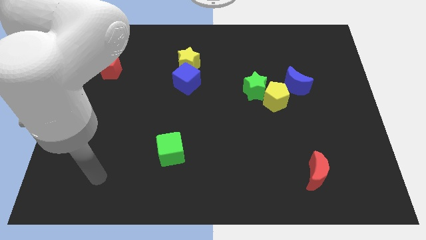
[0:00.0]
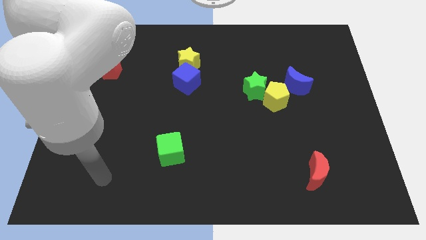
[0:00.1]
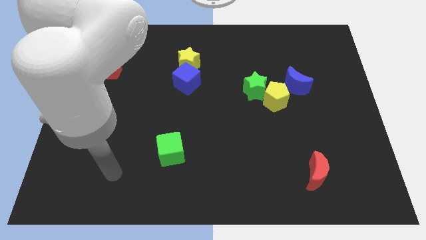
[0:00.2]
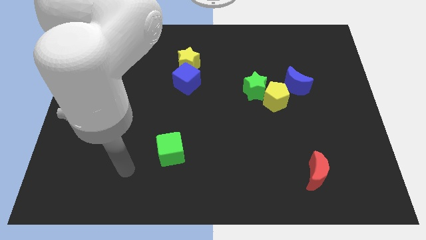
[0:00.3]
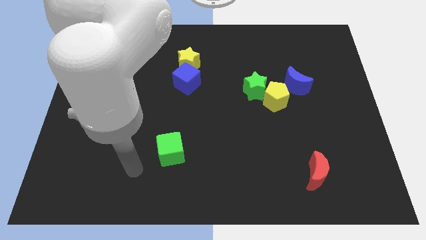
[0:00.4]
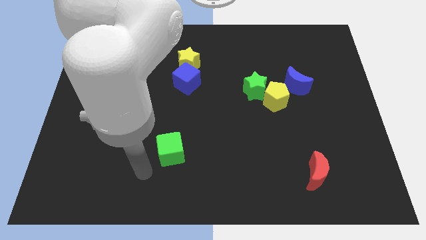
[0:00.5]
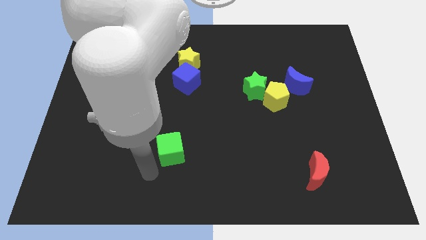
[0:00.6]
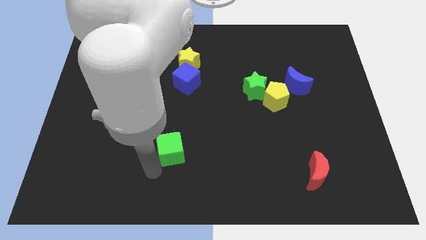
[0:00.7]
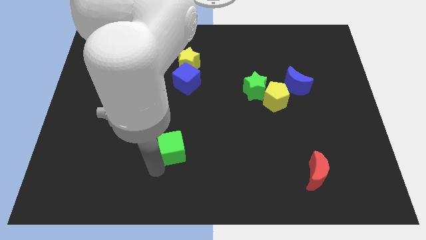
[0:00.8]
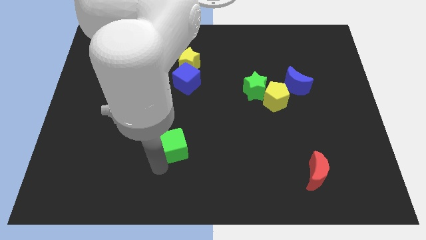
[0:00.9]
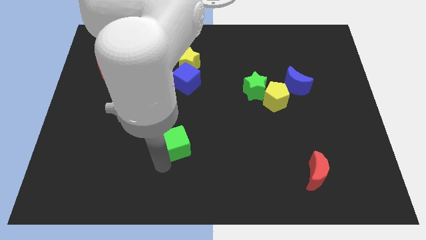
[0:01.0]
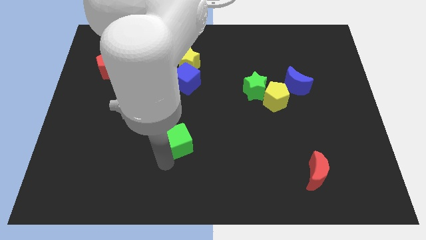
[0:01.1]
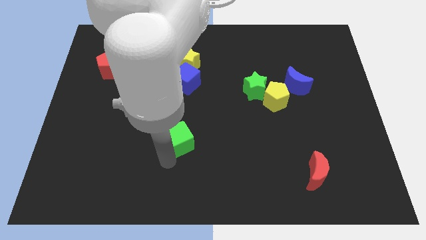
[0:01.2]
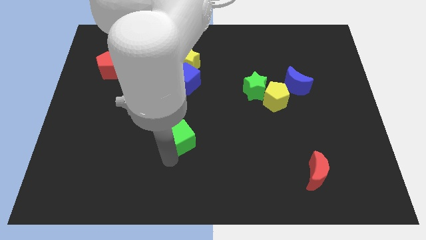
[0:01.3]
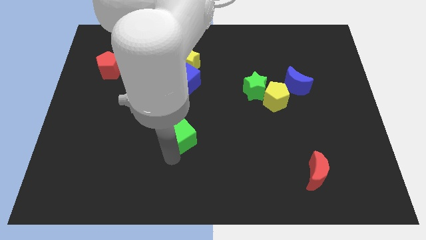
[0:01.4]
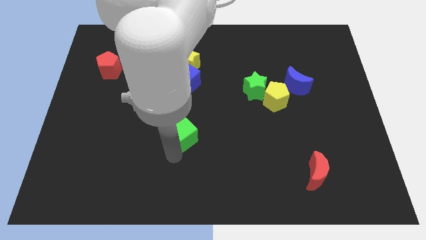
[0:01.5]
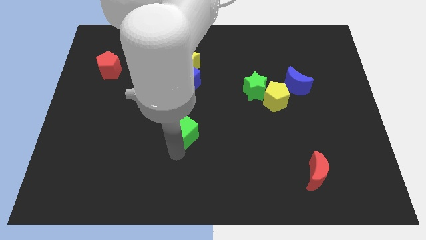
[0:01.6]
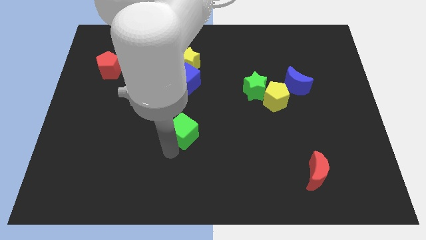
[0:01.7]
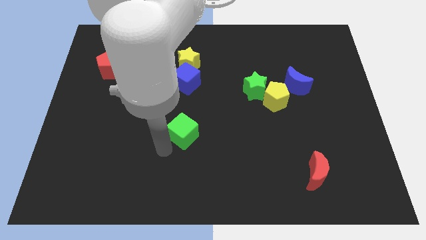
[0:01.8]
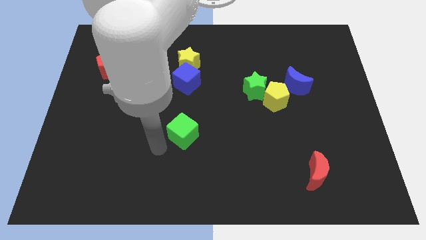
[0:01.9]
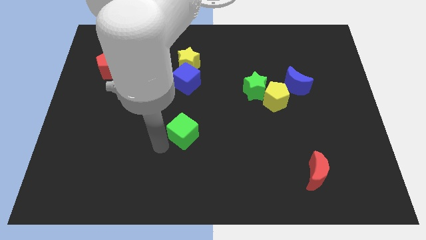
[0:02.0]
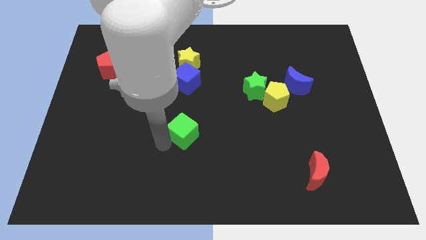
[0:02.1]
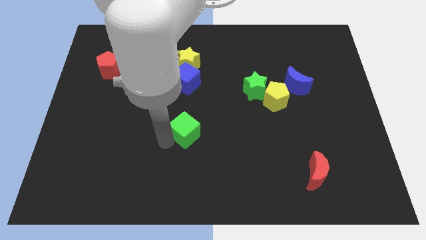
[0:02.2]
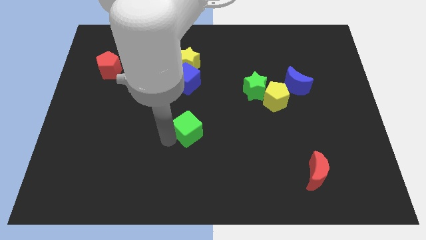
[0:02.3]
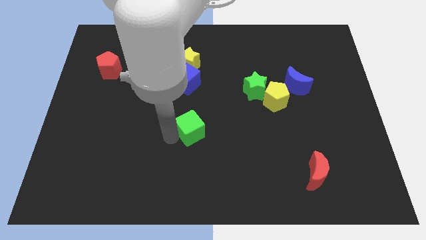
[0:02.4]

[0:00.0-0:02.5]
slide the green cube diagonally upwards and to the right a little bit

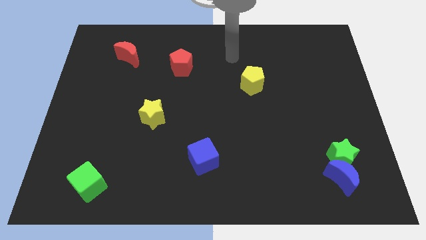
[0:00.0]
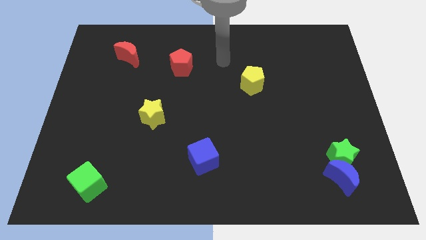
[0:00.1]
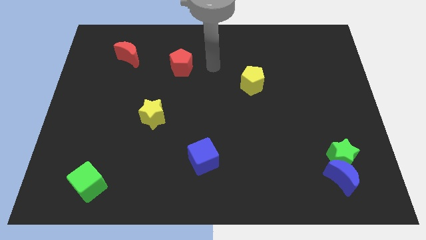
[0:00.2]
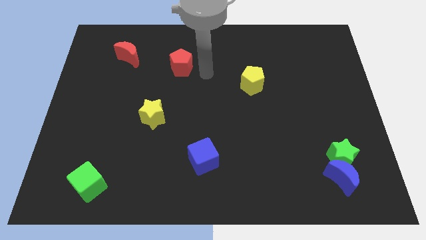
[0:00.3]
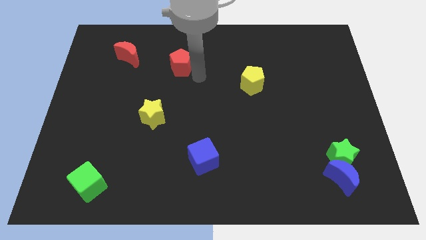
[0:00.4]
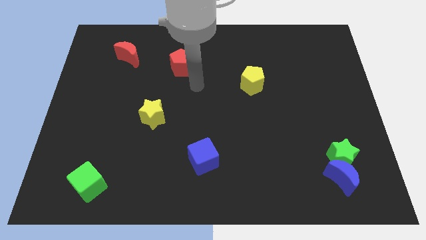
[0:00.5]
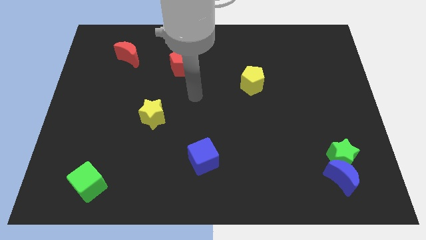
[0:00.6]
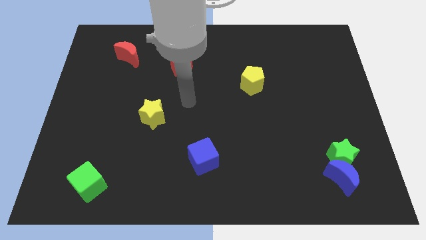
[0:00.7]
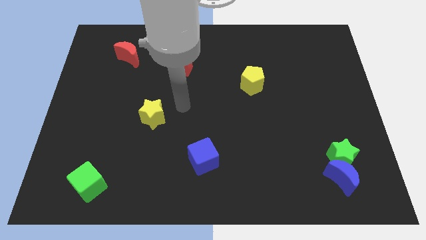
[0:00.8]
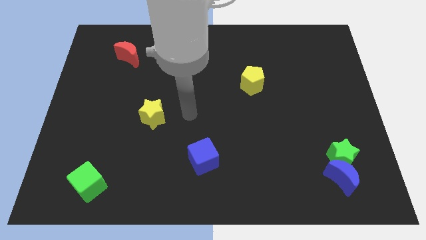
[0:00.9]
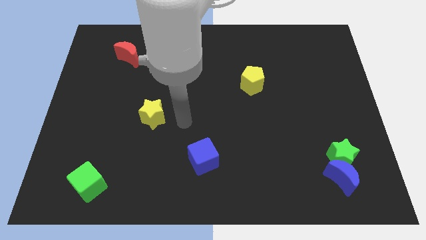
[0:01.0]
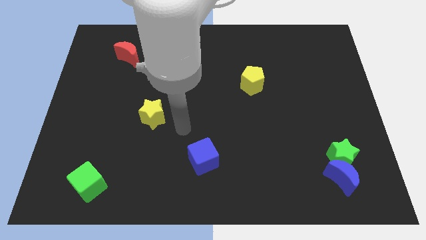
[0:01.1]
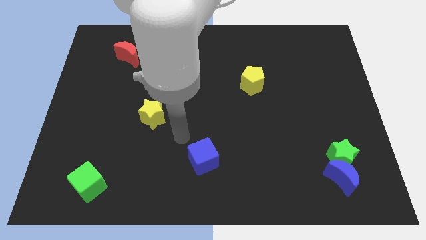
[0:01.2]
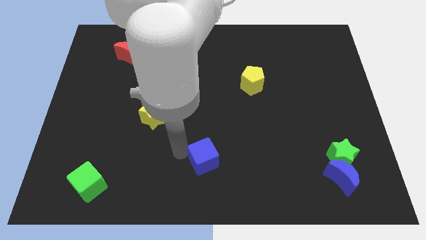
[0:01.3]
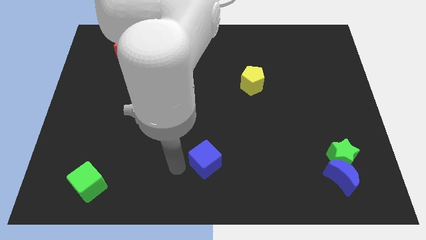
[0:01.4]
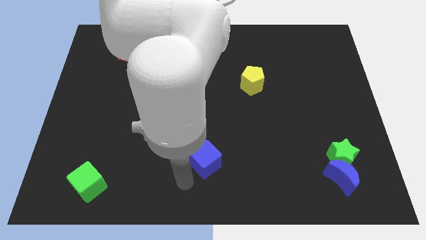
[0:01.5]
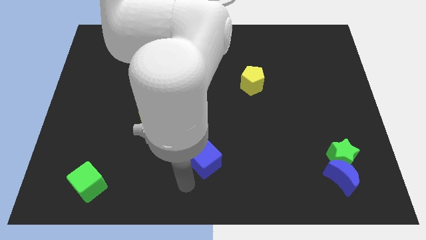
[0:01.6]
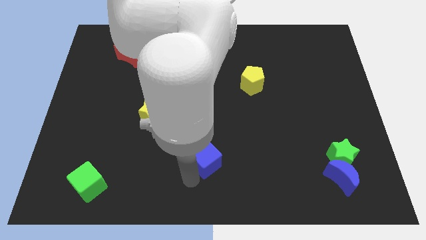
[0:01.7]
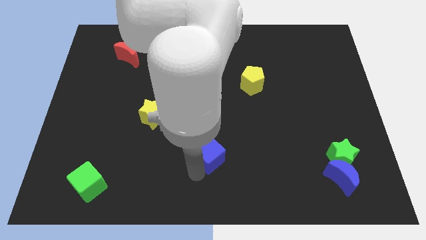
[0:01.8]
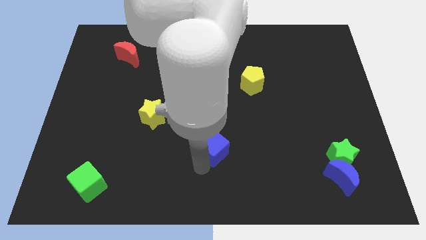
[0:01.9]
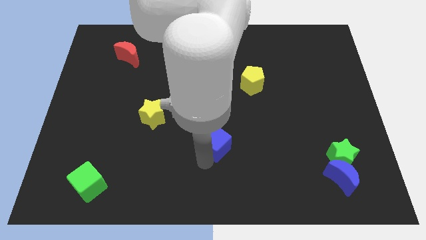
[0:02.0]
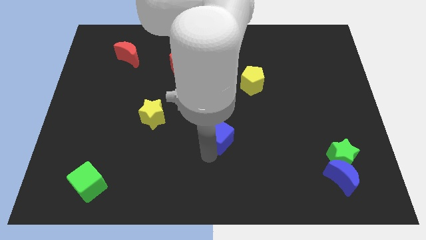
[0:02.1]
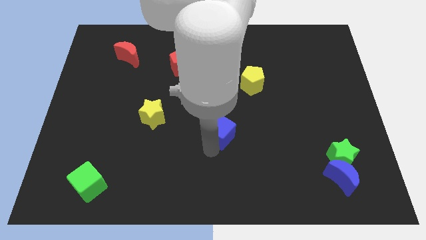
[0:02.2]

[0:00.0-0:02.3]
push the blue cube a little diagonally upwards and right

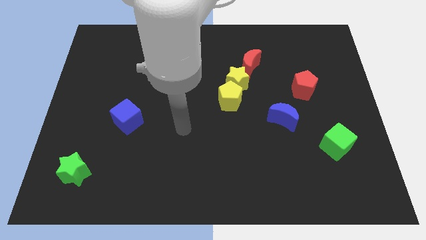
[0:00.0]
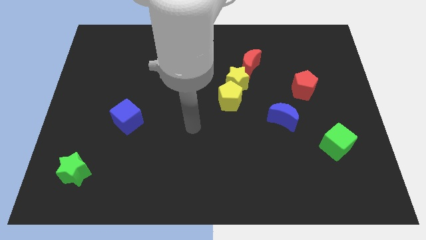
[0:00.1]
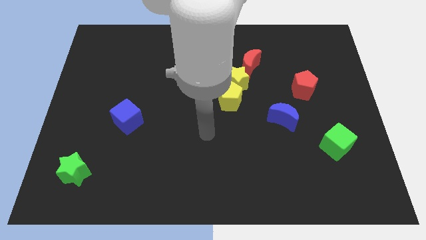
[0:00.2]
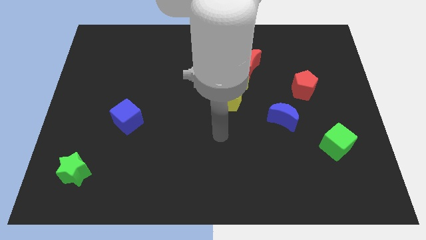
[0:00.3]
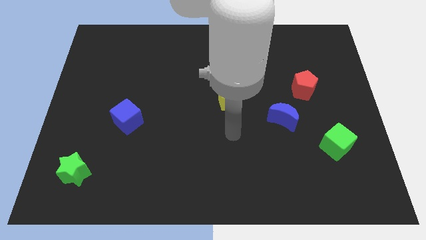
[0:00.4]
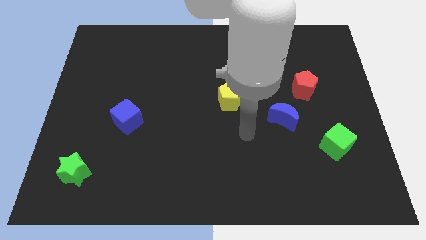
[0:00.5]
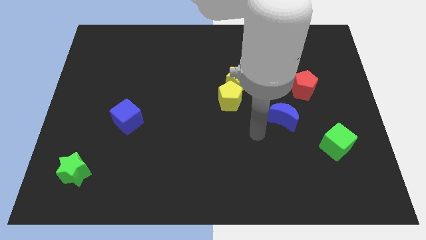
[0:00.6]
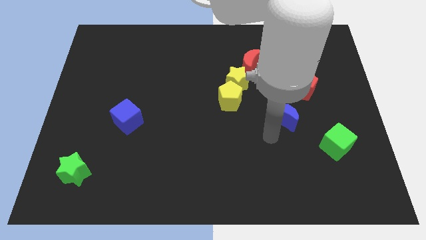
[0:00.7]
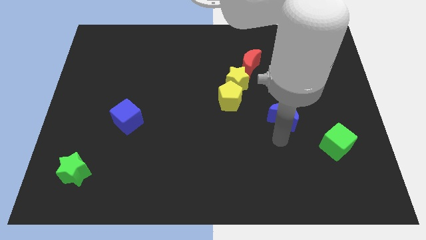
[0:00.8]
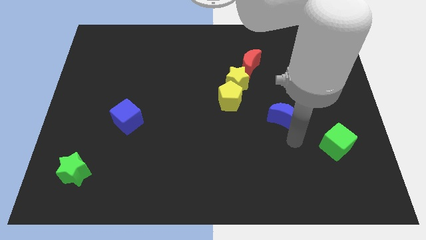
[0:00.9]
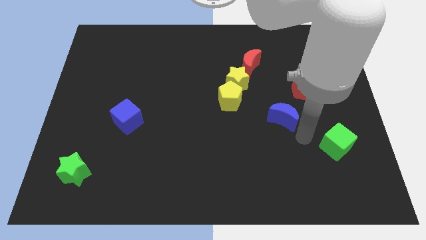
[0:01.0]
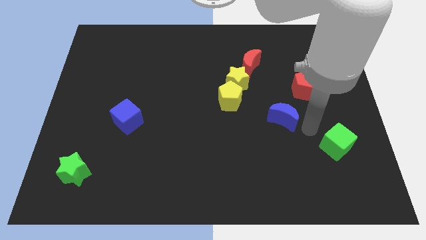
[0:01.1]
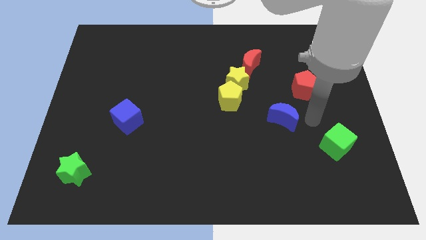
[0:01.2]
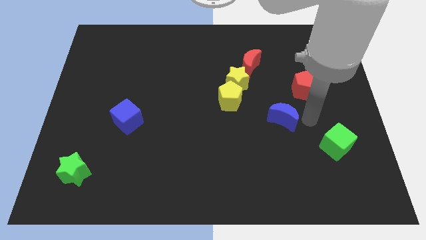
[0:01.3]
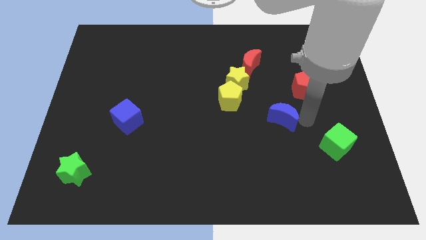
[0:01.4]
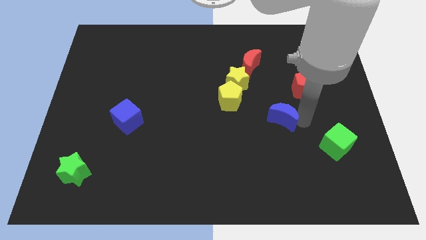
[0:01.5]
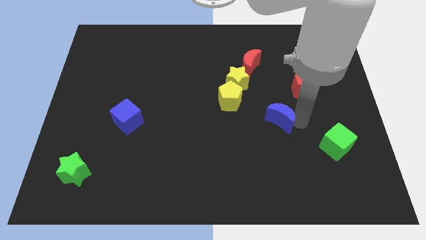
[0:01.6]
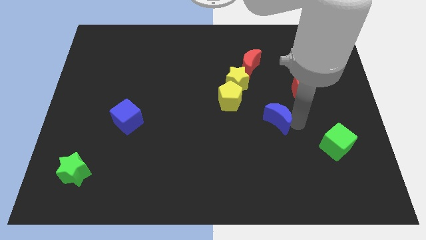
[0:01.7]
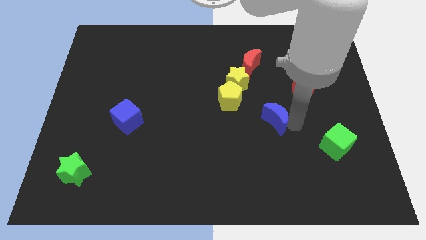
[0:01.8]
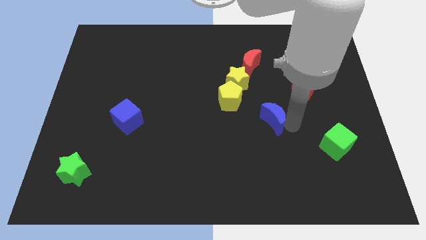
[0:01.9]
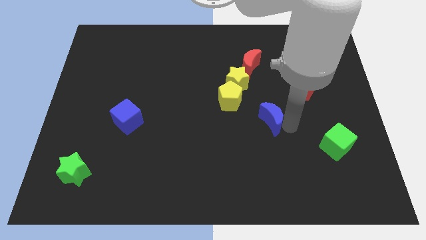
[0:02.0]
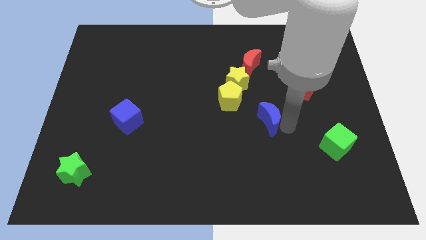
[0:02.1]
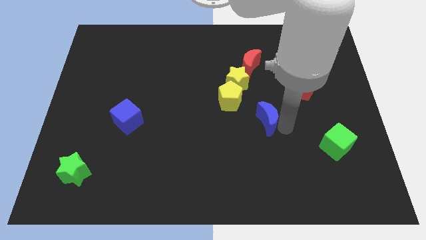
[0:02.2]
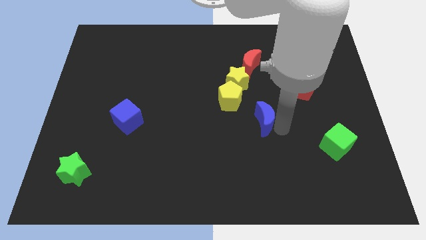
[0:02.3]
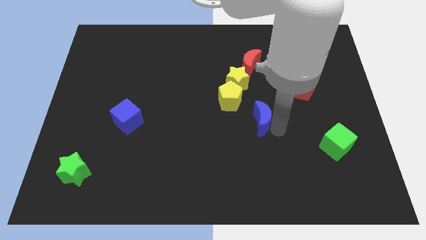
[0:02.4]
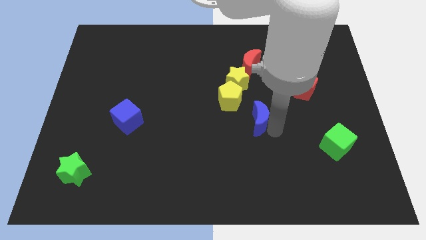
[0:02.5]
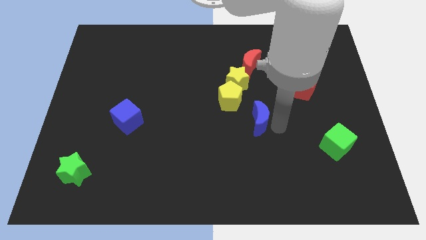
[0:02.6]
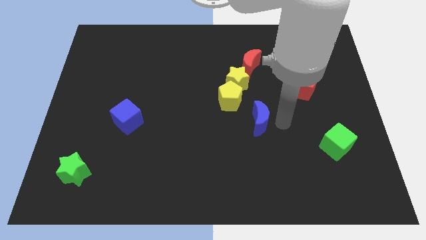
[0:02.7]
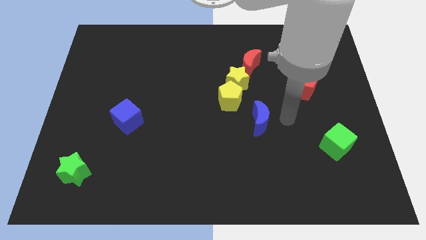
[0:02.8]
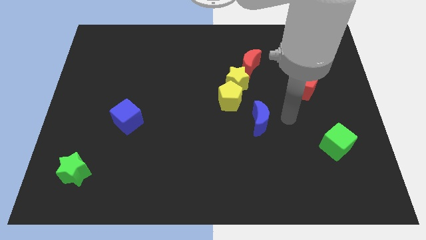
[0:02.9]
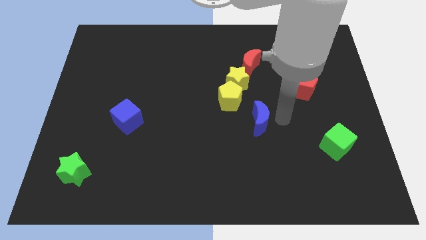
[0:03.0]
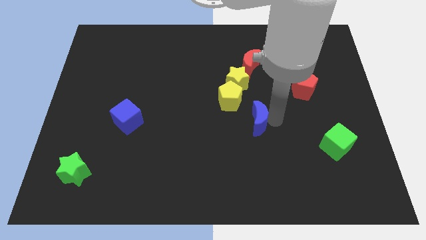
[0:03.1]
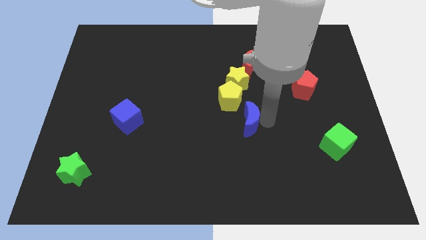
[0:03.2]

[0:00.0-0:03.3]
slightly push the blue moon to the left
